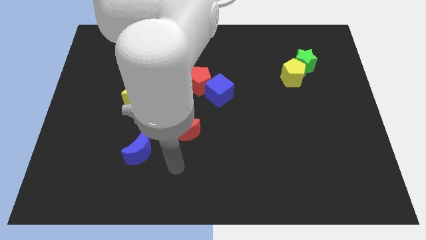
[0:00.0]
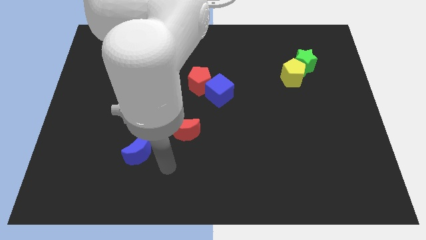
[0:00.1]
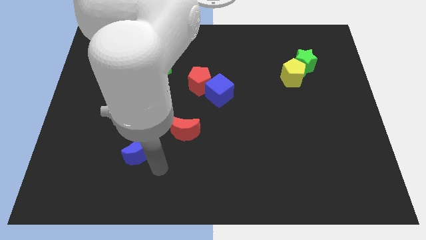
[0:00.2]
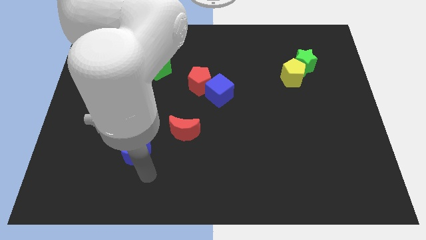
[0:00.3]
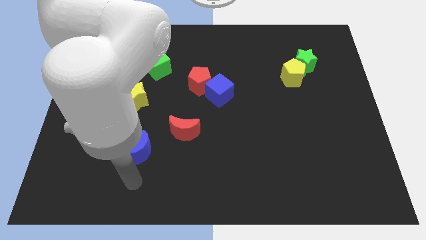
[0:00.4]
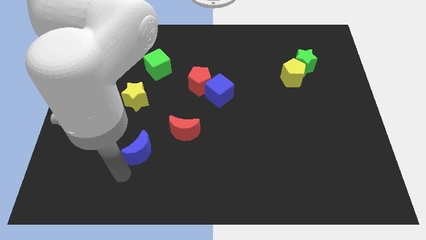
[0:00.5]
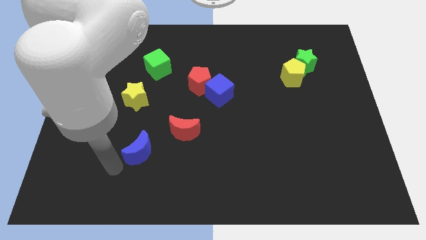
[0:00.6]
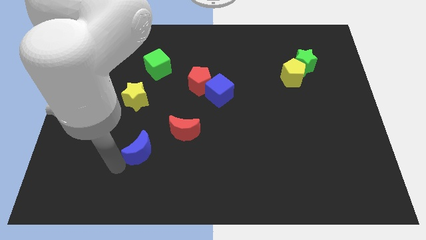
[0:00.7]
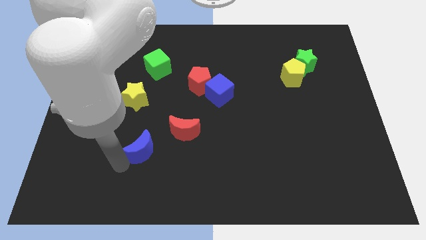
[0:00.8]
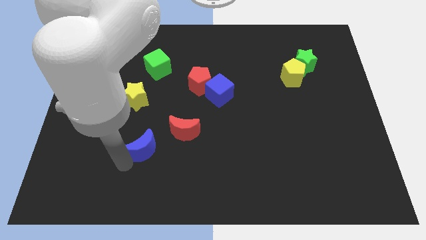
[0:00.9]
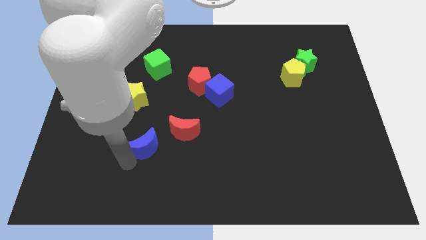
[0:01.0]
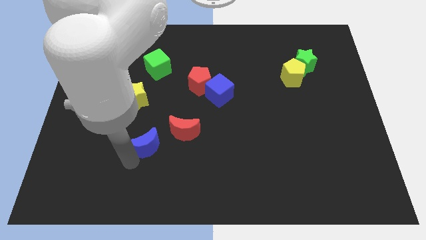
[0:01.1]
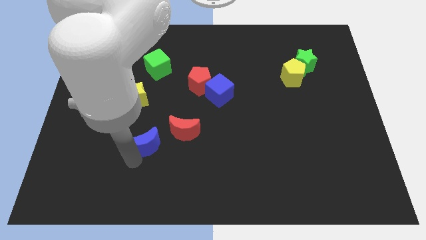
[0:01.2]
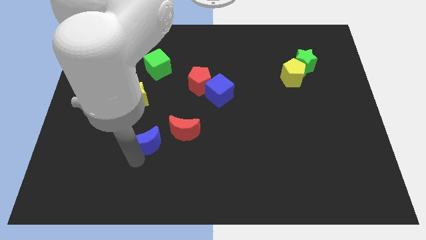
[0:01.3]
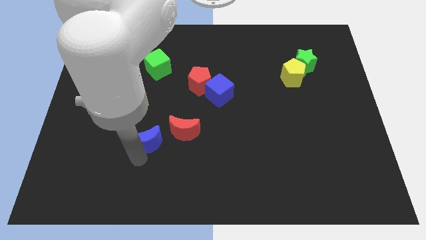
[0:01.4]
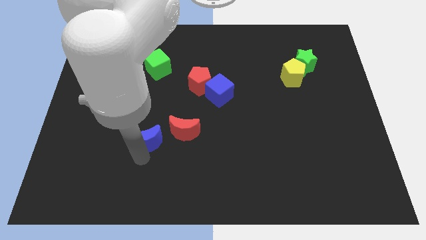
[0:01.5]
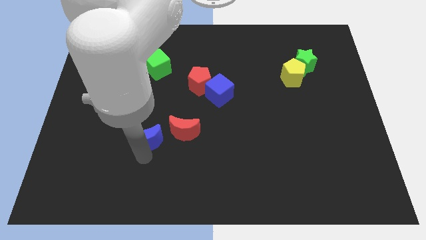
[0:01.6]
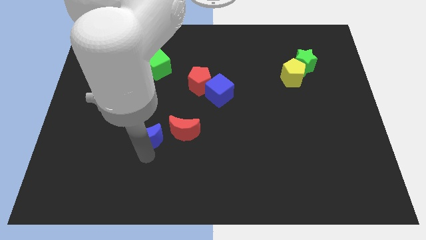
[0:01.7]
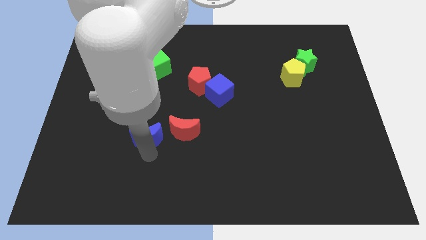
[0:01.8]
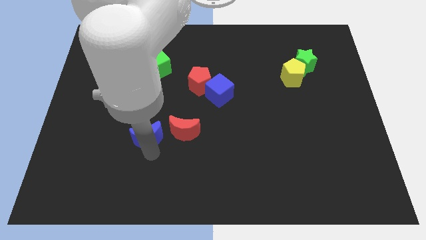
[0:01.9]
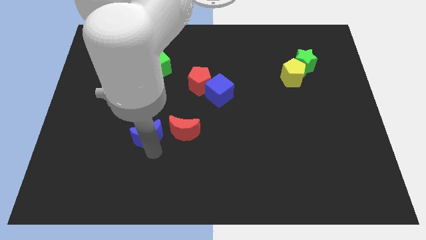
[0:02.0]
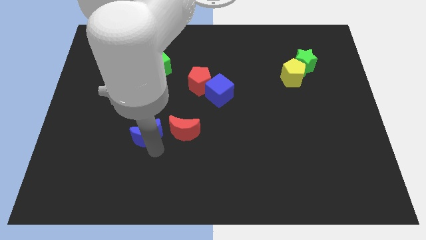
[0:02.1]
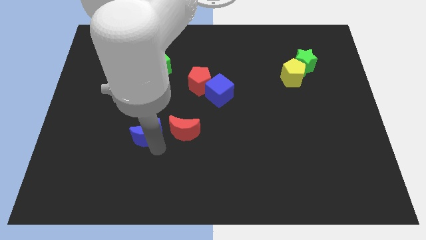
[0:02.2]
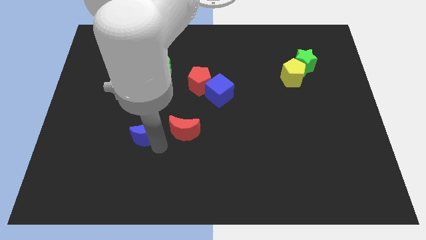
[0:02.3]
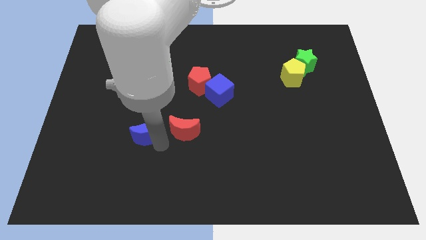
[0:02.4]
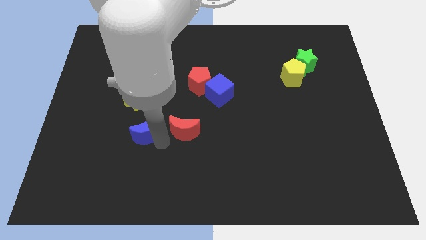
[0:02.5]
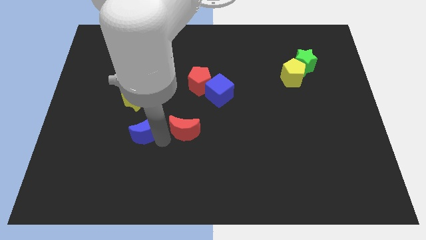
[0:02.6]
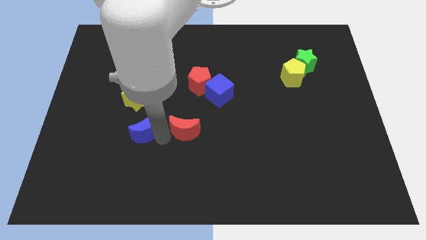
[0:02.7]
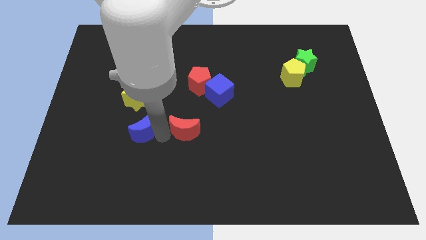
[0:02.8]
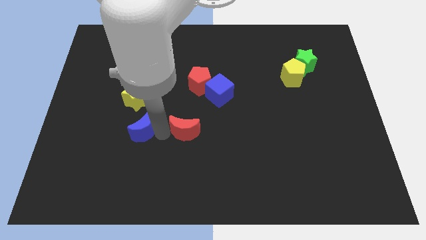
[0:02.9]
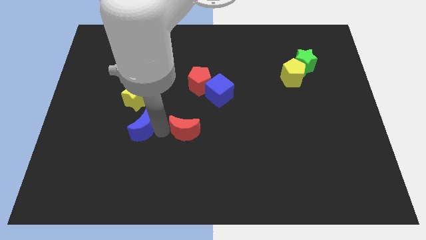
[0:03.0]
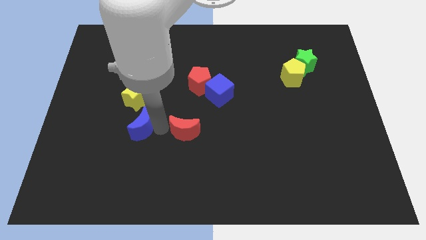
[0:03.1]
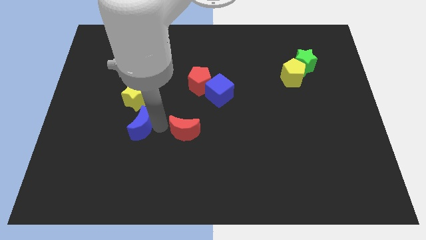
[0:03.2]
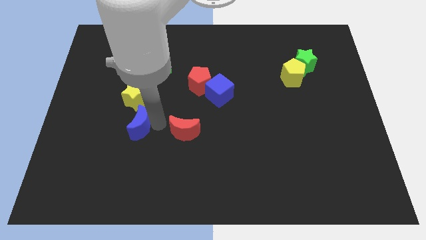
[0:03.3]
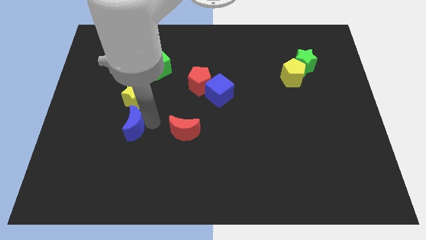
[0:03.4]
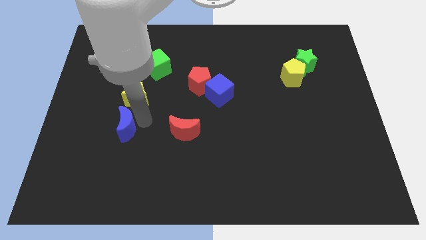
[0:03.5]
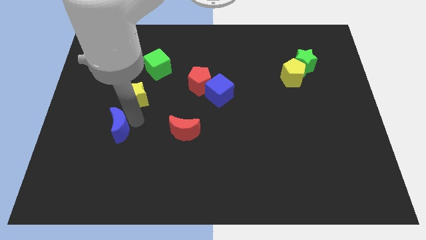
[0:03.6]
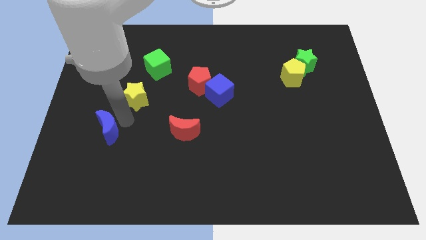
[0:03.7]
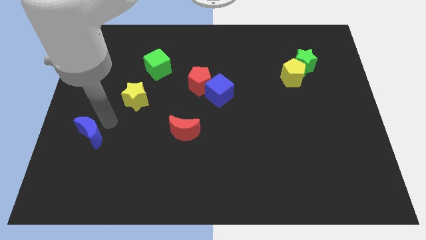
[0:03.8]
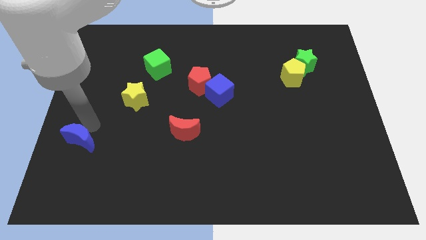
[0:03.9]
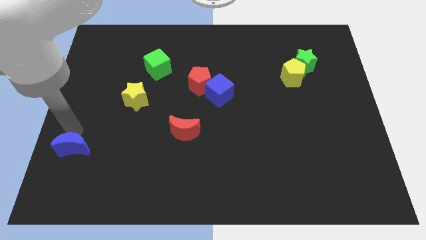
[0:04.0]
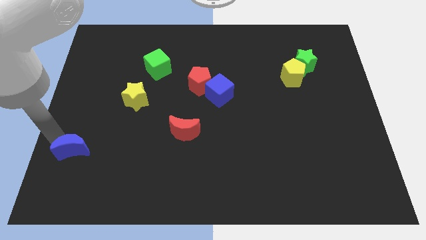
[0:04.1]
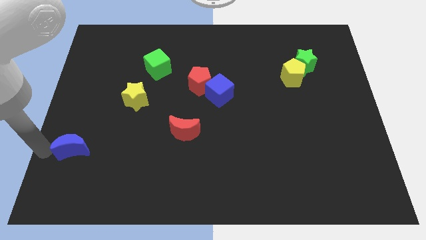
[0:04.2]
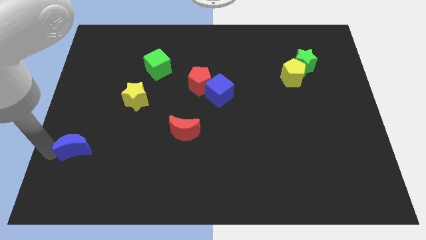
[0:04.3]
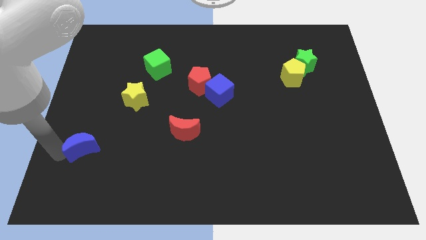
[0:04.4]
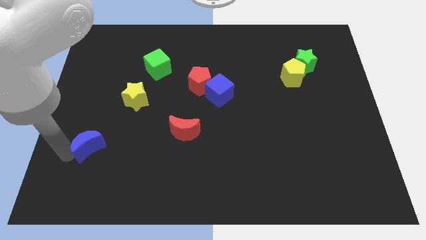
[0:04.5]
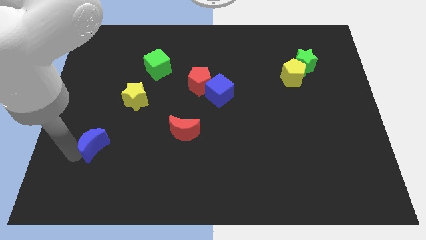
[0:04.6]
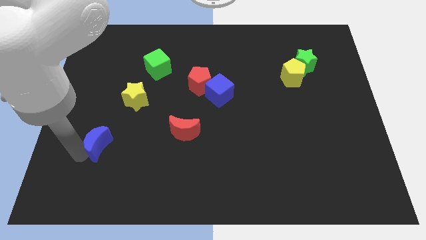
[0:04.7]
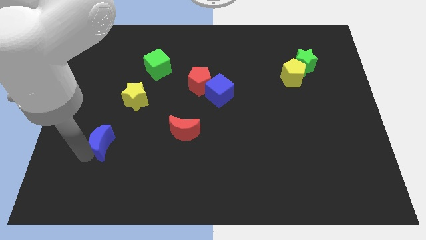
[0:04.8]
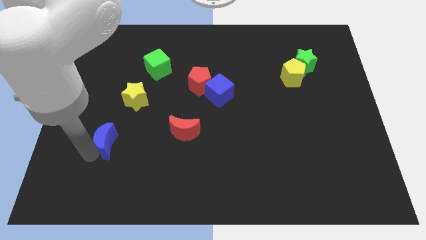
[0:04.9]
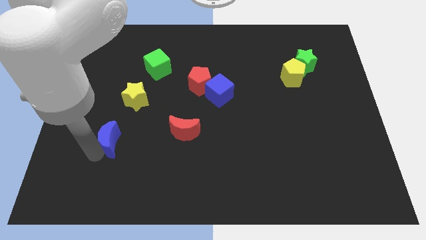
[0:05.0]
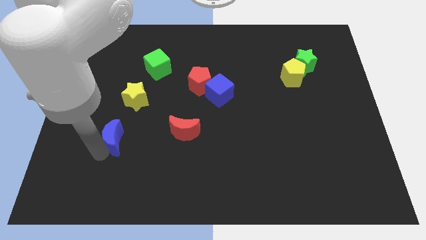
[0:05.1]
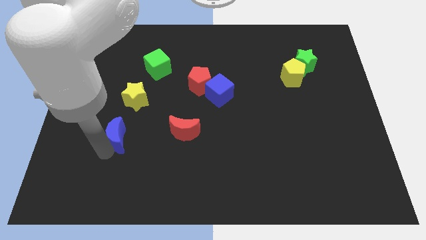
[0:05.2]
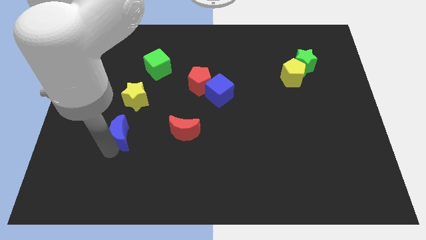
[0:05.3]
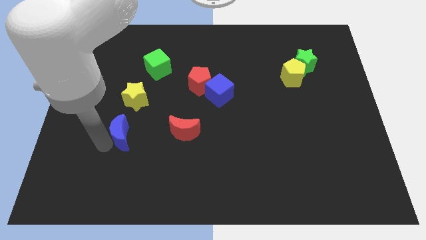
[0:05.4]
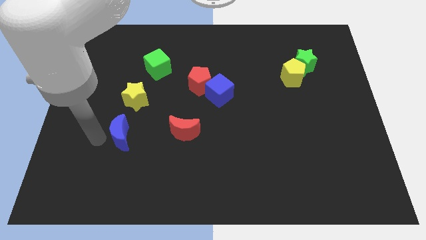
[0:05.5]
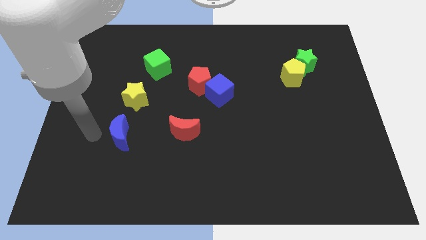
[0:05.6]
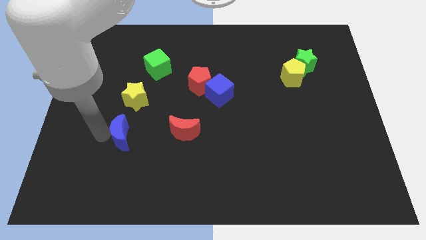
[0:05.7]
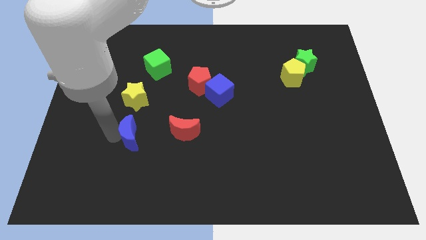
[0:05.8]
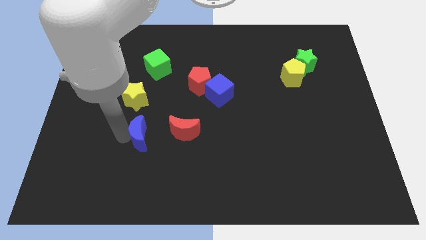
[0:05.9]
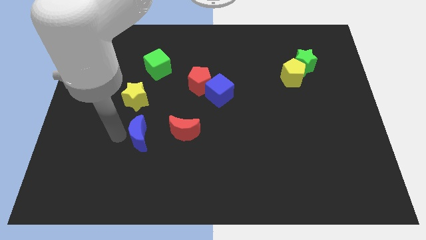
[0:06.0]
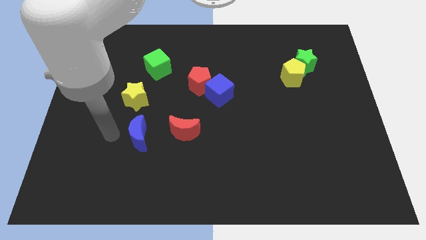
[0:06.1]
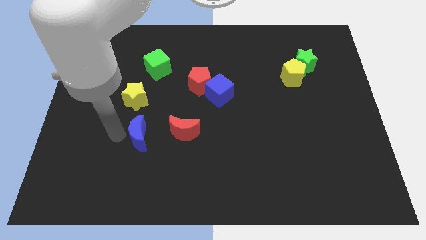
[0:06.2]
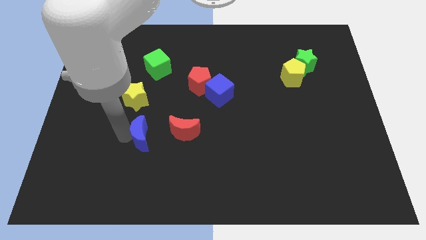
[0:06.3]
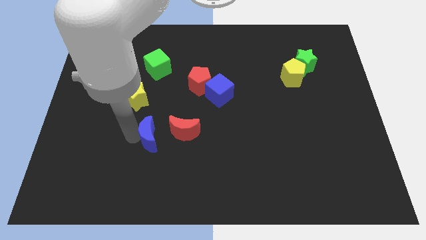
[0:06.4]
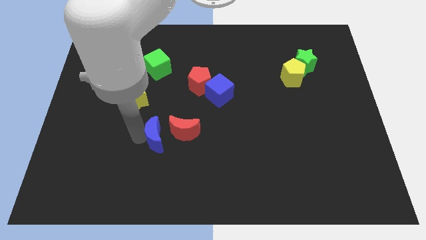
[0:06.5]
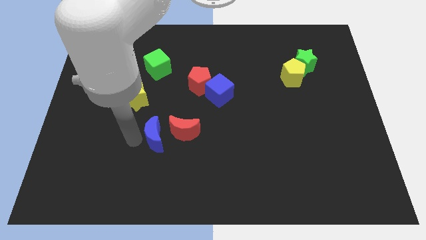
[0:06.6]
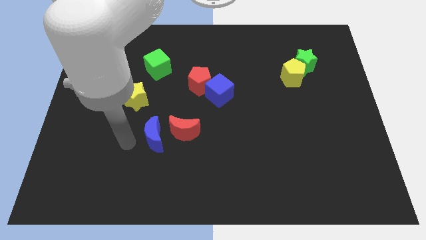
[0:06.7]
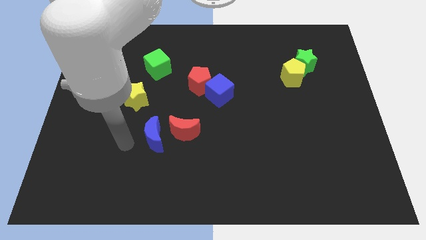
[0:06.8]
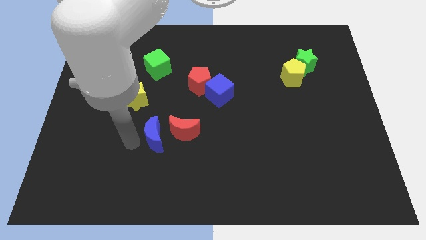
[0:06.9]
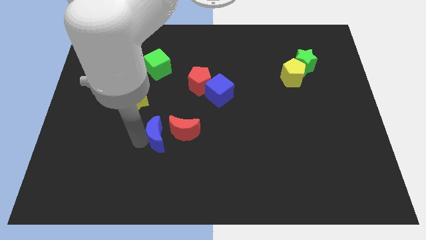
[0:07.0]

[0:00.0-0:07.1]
put the blue moon next to the red moon

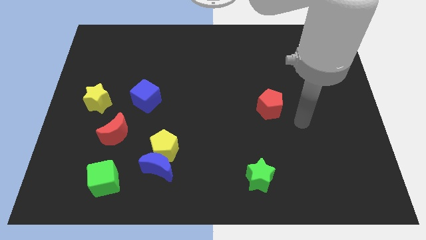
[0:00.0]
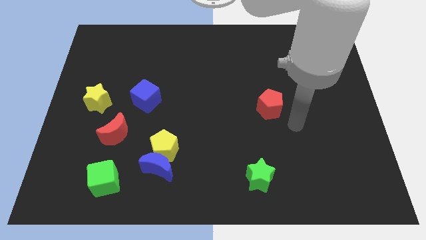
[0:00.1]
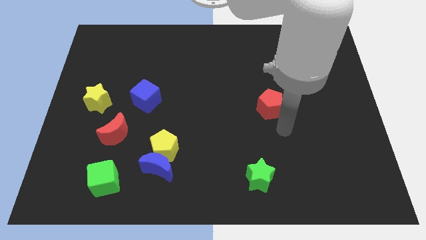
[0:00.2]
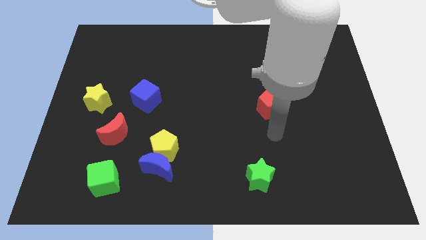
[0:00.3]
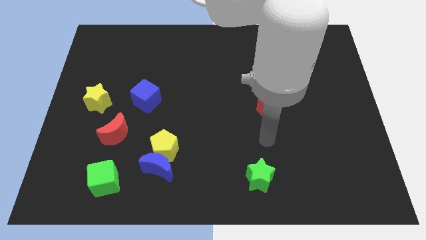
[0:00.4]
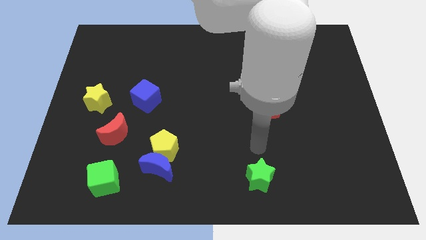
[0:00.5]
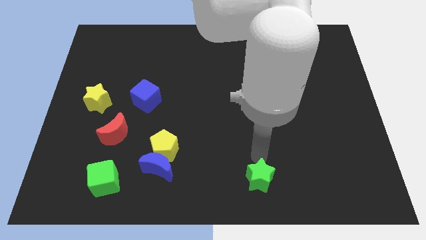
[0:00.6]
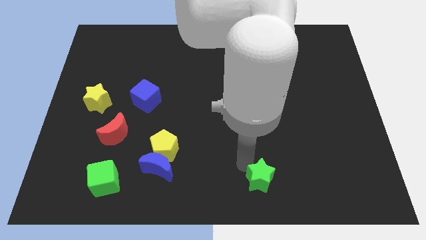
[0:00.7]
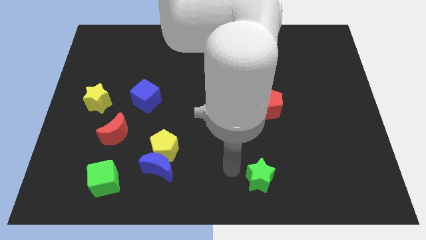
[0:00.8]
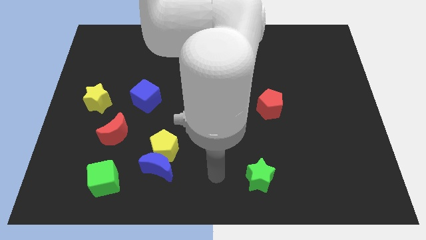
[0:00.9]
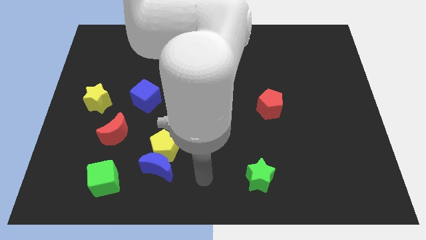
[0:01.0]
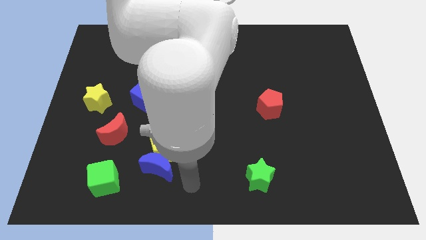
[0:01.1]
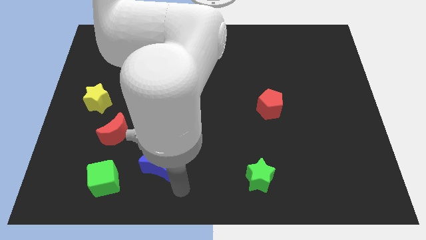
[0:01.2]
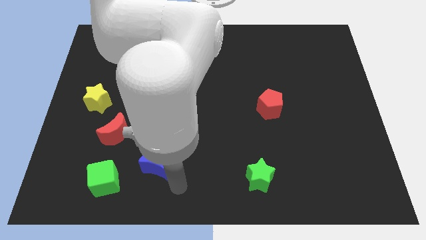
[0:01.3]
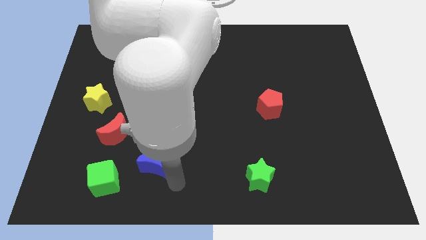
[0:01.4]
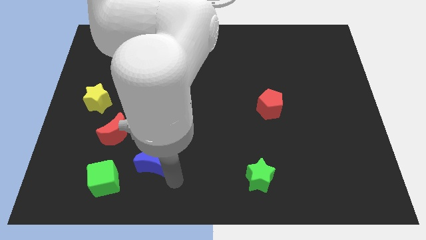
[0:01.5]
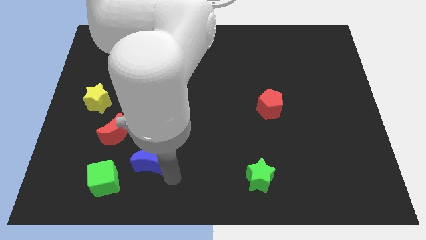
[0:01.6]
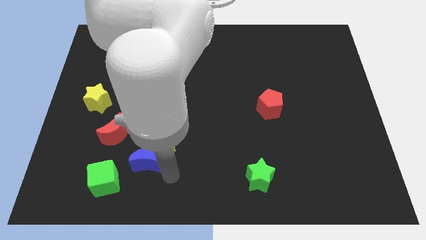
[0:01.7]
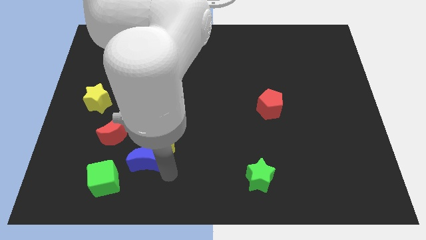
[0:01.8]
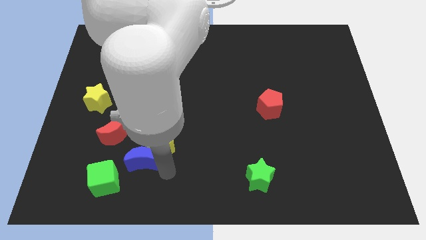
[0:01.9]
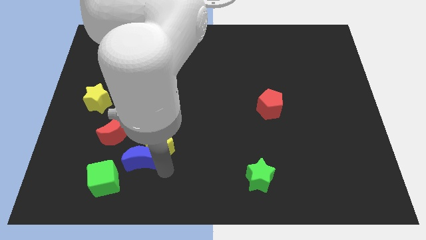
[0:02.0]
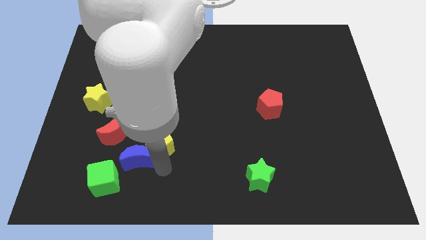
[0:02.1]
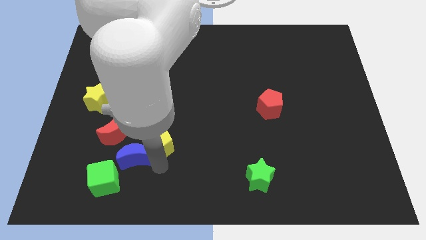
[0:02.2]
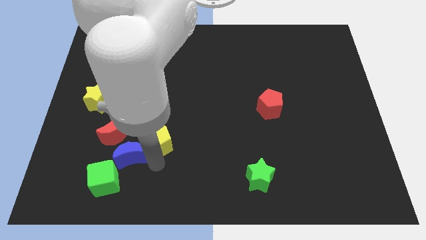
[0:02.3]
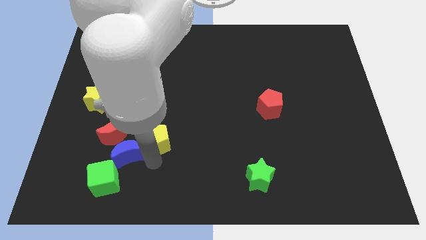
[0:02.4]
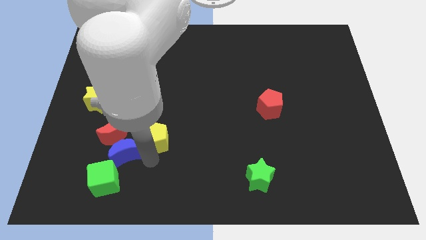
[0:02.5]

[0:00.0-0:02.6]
put the blue moon towards the red moon
